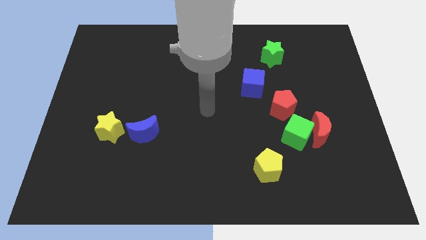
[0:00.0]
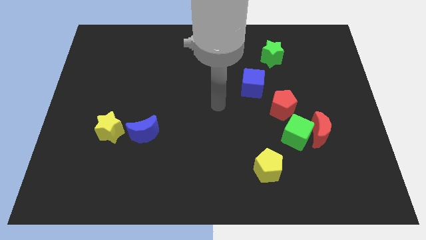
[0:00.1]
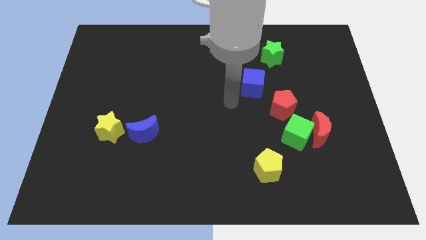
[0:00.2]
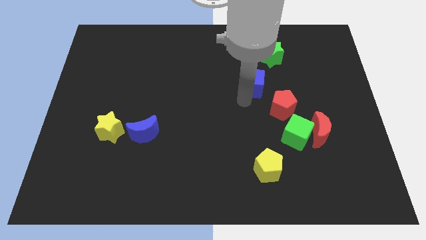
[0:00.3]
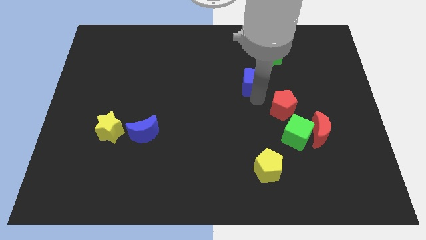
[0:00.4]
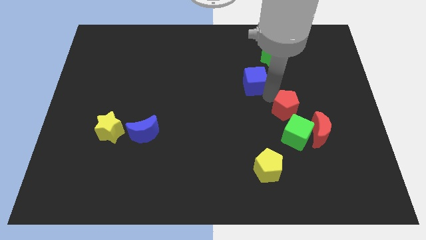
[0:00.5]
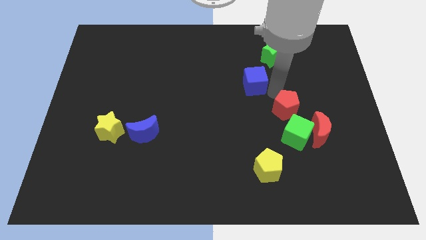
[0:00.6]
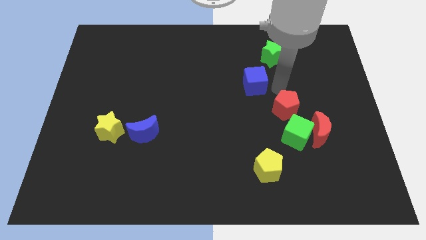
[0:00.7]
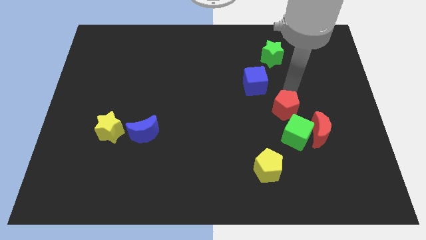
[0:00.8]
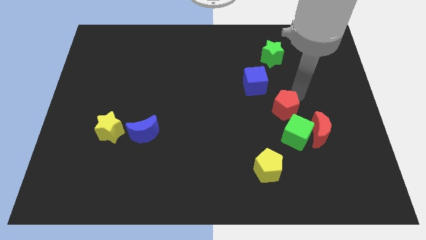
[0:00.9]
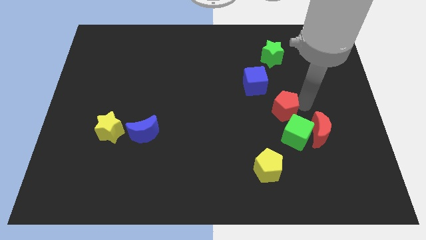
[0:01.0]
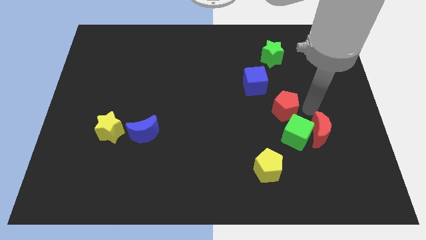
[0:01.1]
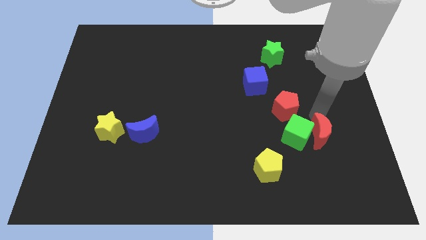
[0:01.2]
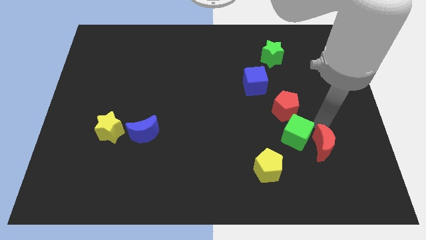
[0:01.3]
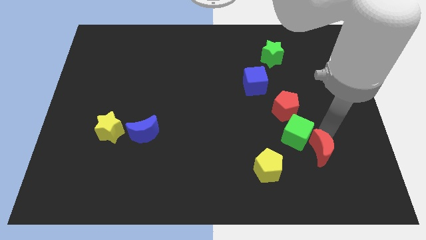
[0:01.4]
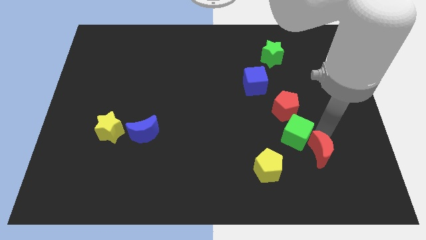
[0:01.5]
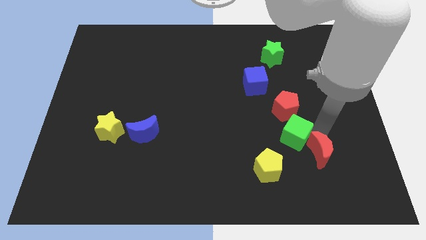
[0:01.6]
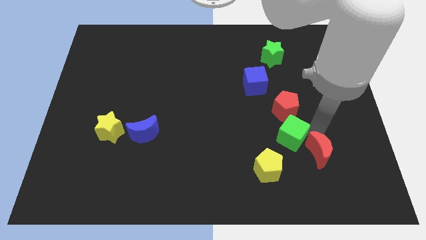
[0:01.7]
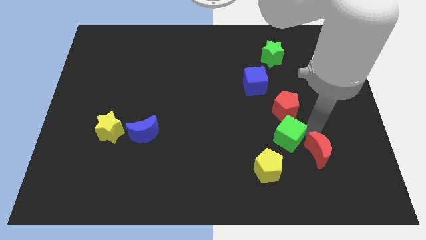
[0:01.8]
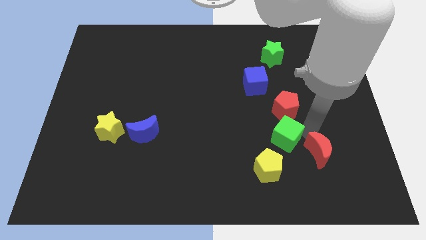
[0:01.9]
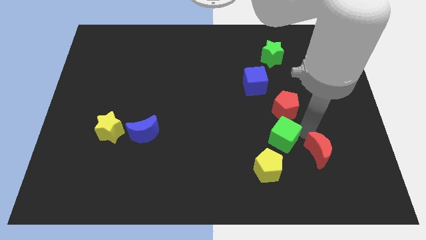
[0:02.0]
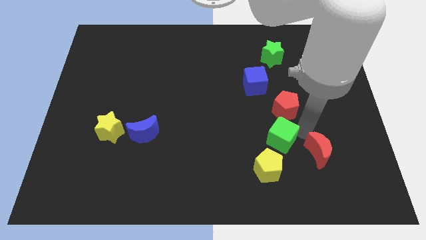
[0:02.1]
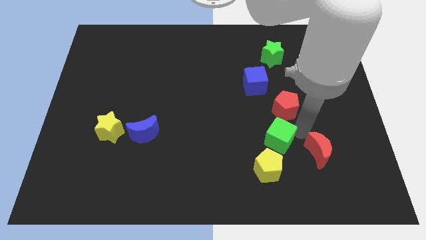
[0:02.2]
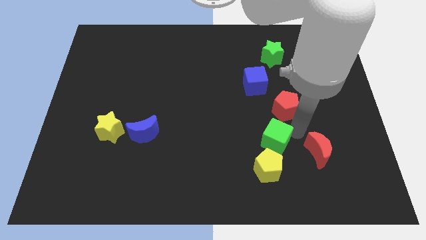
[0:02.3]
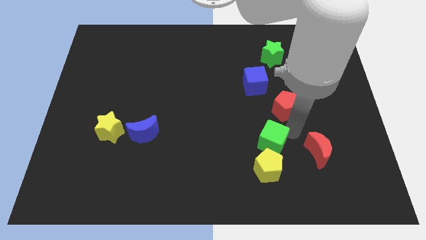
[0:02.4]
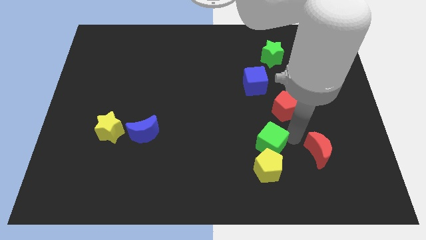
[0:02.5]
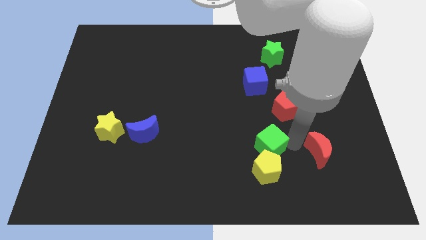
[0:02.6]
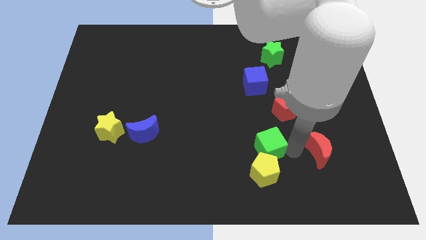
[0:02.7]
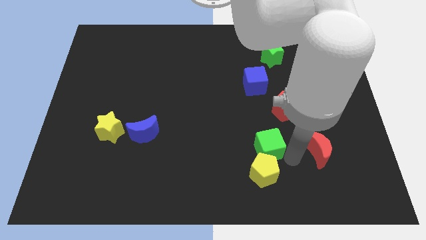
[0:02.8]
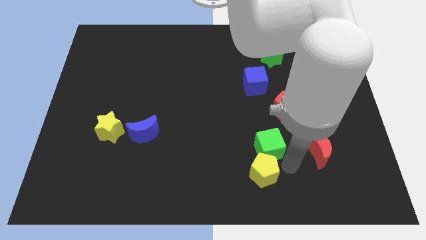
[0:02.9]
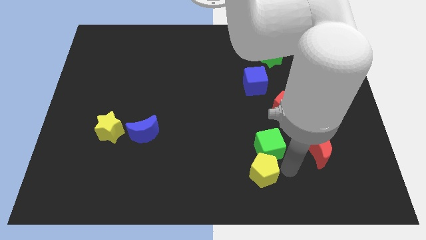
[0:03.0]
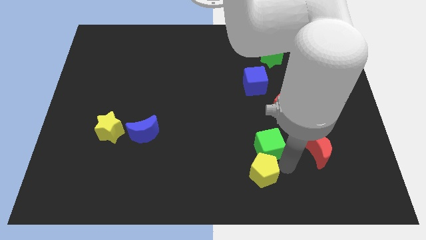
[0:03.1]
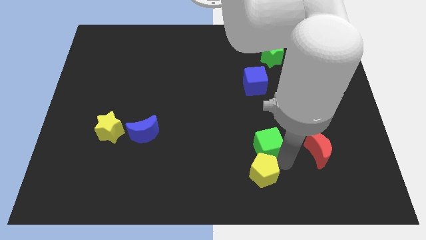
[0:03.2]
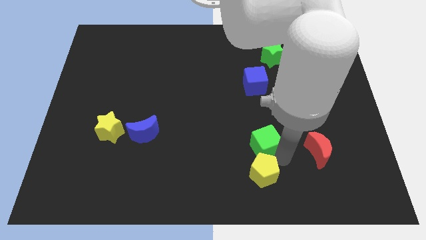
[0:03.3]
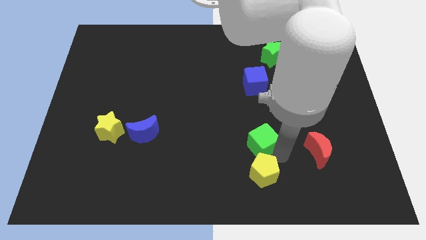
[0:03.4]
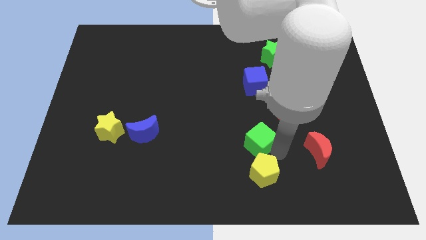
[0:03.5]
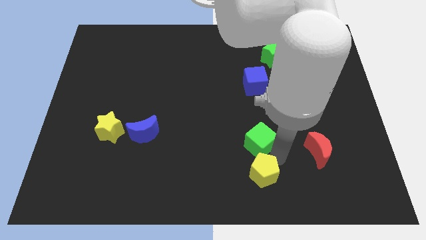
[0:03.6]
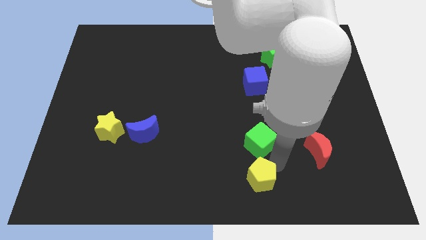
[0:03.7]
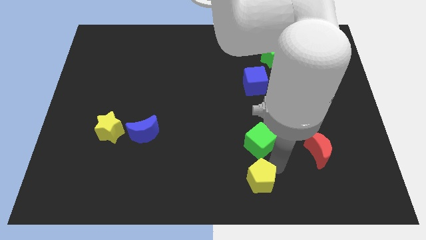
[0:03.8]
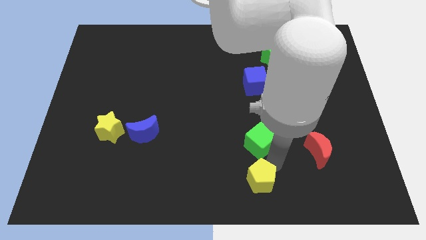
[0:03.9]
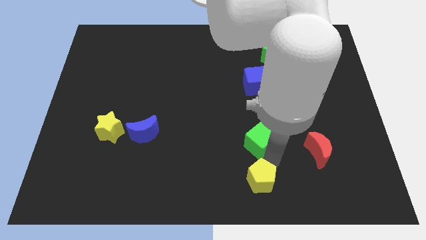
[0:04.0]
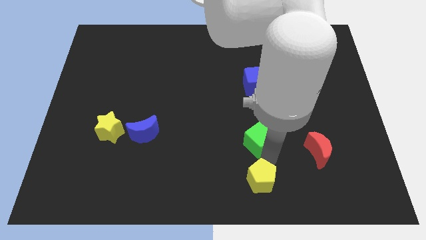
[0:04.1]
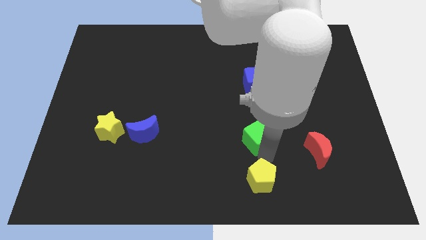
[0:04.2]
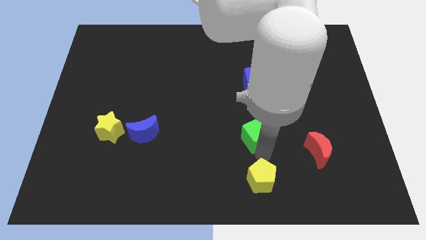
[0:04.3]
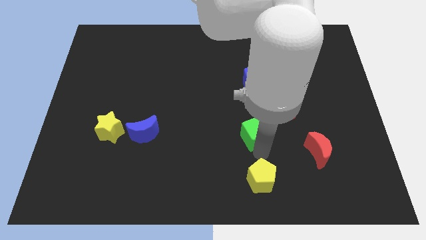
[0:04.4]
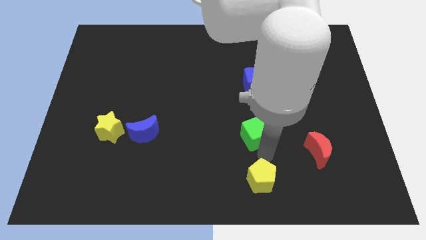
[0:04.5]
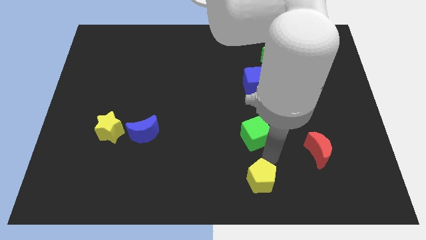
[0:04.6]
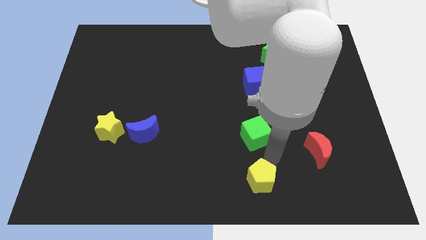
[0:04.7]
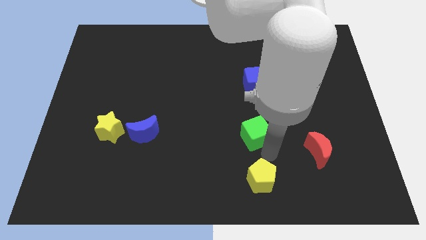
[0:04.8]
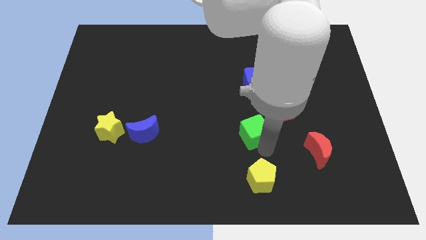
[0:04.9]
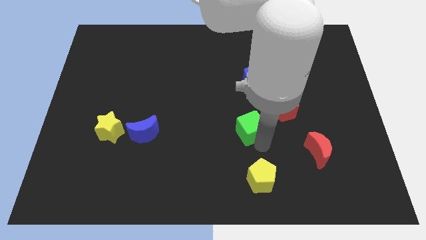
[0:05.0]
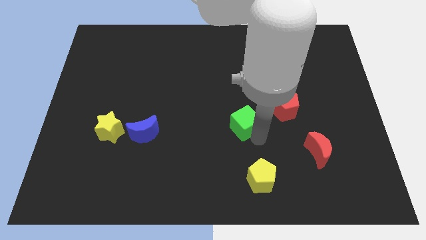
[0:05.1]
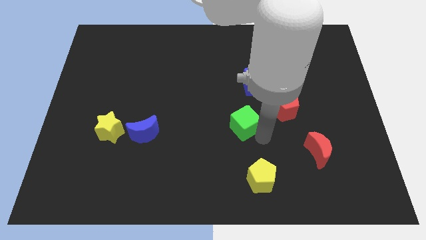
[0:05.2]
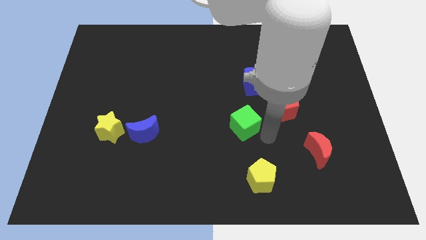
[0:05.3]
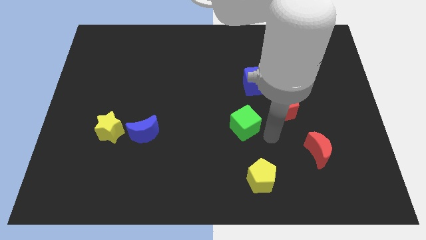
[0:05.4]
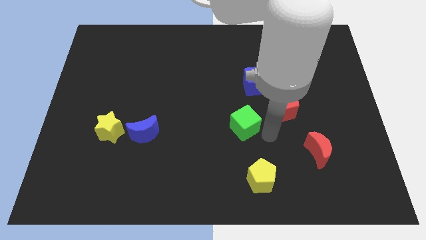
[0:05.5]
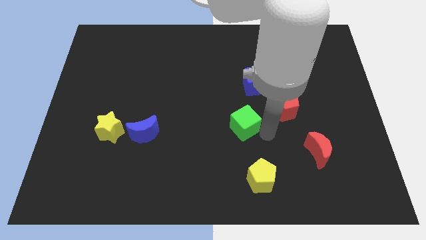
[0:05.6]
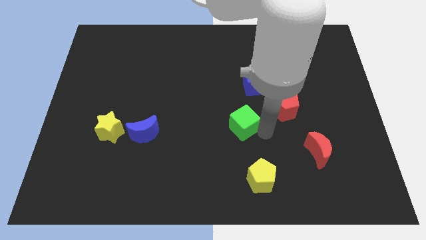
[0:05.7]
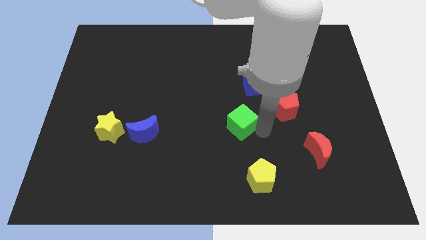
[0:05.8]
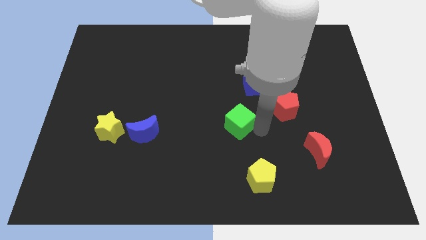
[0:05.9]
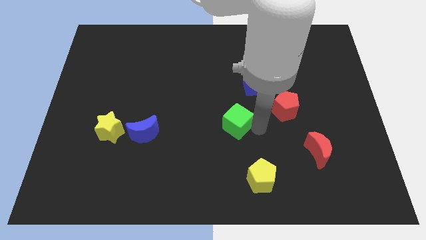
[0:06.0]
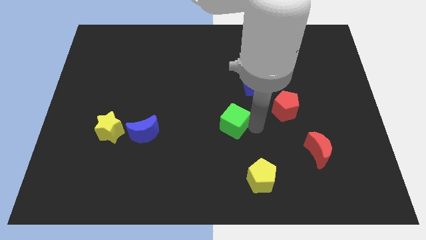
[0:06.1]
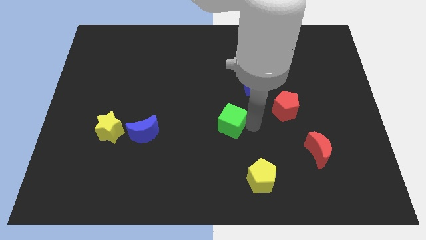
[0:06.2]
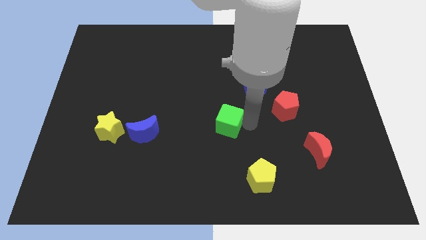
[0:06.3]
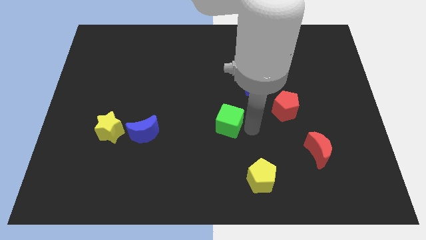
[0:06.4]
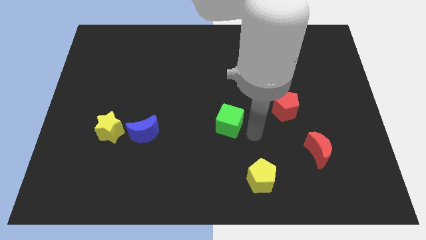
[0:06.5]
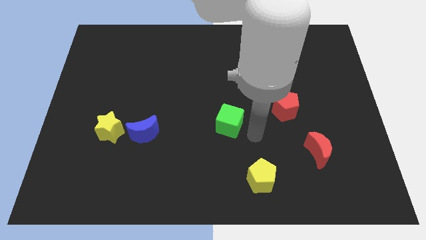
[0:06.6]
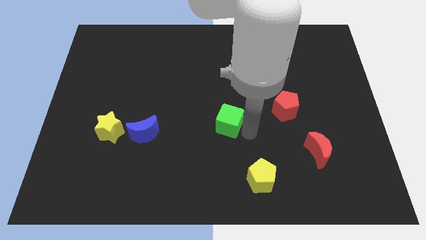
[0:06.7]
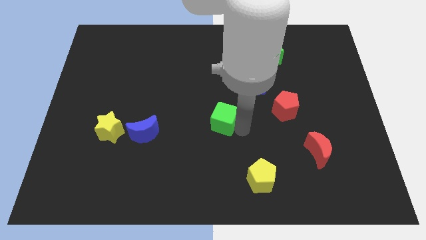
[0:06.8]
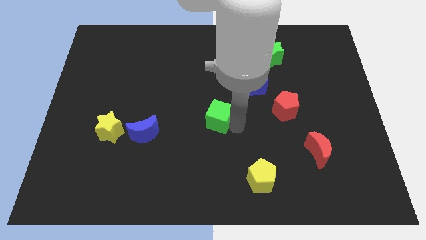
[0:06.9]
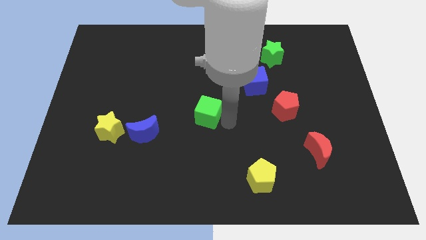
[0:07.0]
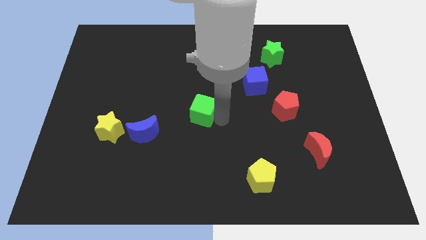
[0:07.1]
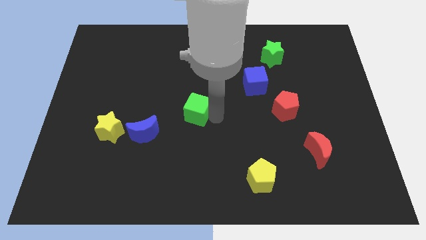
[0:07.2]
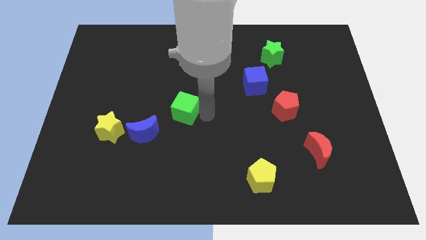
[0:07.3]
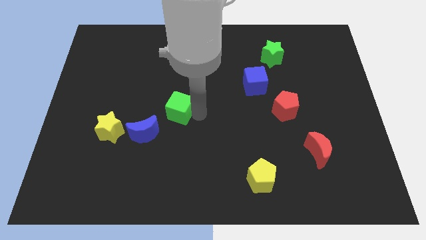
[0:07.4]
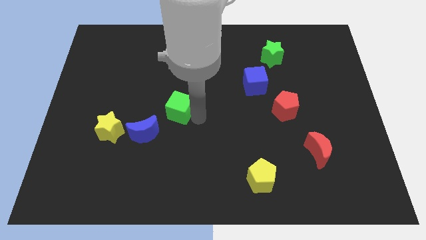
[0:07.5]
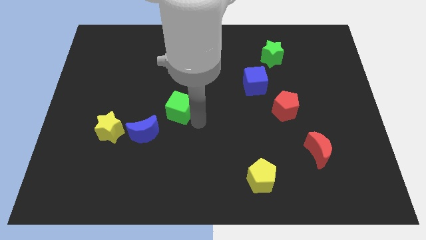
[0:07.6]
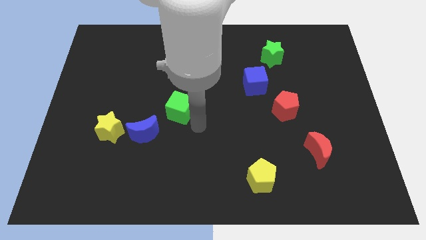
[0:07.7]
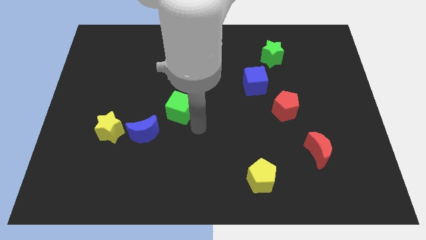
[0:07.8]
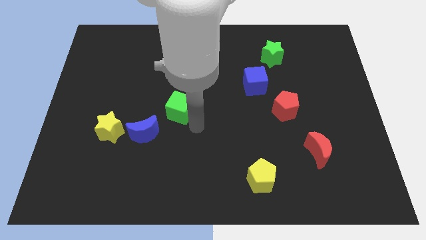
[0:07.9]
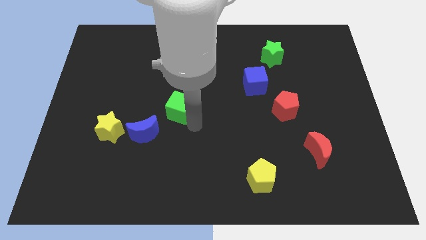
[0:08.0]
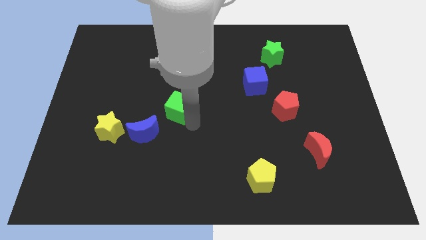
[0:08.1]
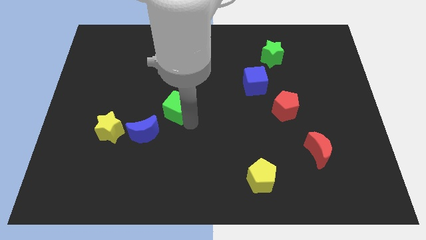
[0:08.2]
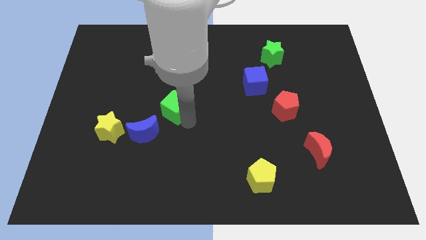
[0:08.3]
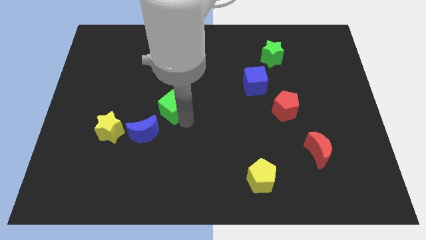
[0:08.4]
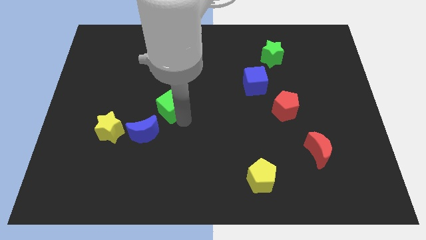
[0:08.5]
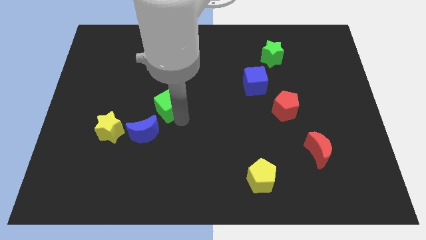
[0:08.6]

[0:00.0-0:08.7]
push the green cube to the top of the blue moon
